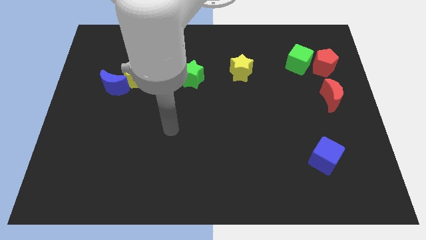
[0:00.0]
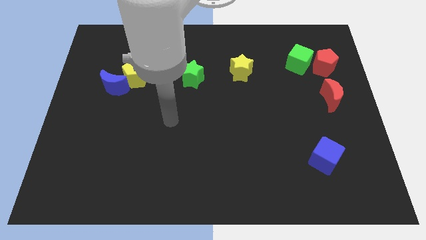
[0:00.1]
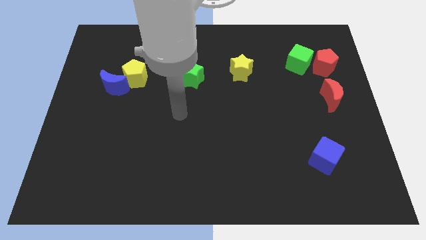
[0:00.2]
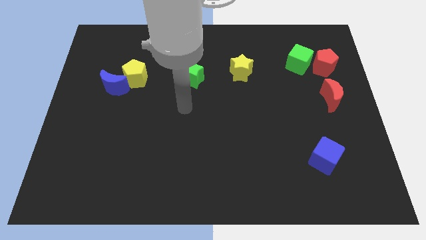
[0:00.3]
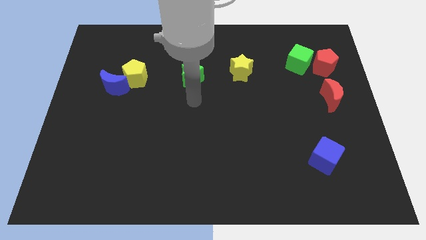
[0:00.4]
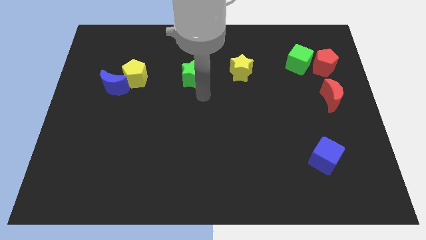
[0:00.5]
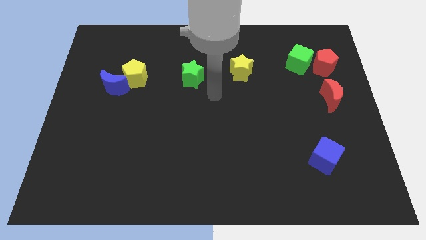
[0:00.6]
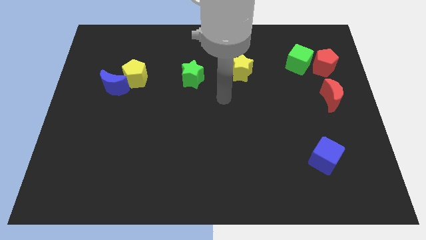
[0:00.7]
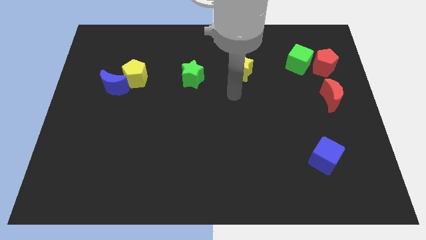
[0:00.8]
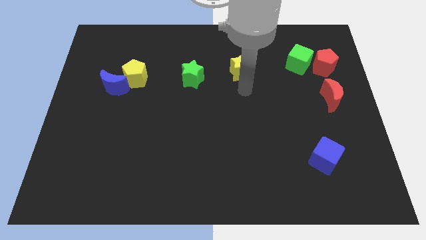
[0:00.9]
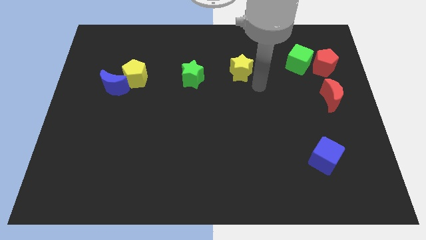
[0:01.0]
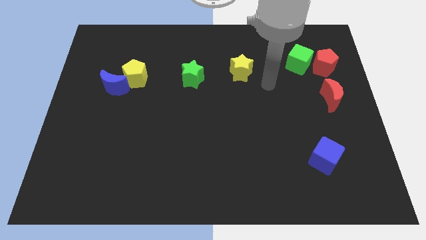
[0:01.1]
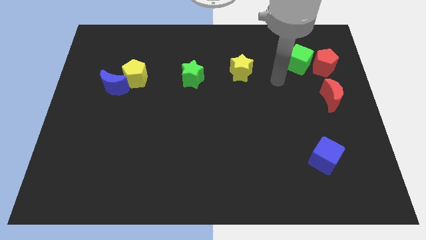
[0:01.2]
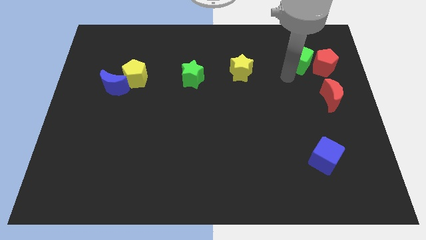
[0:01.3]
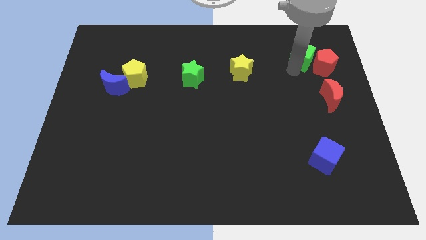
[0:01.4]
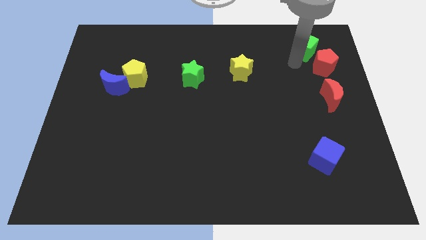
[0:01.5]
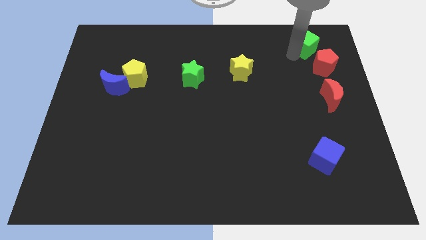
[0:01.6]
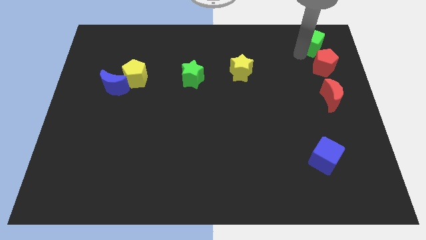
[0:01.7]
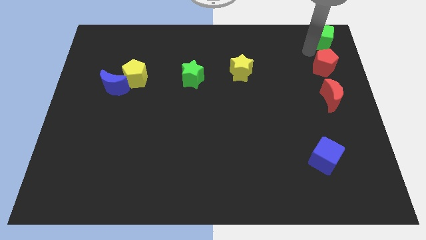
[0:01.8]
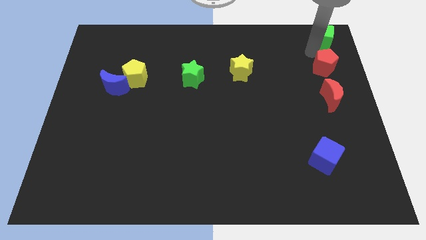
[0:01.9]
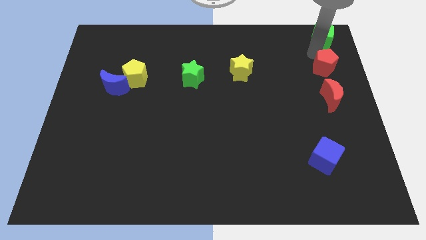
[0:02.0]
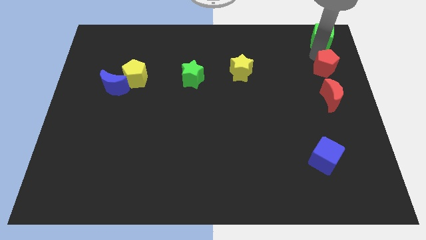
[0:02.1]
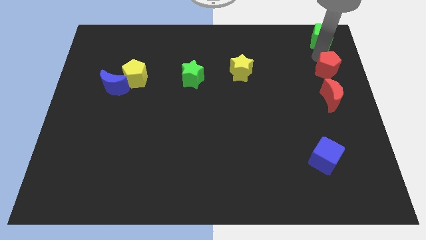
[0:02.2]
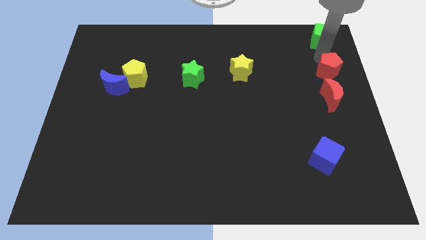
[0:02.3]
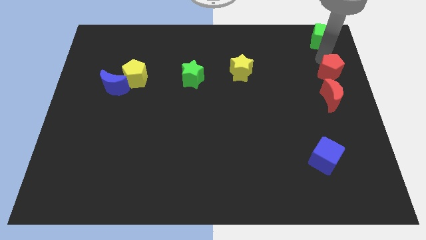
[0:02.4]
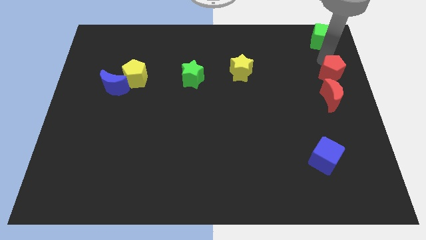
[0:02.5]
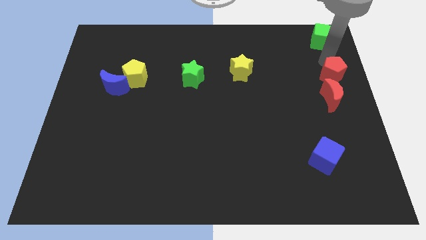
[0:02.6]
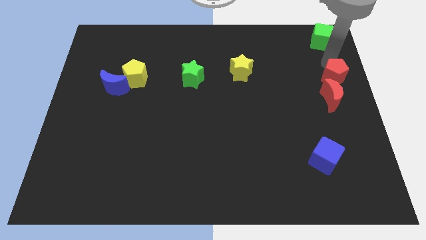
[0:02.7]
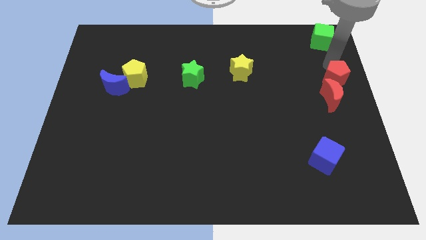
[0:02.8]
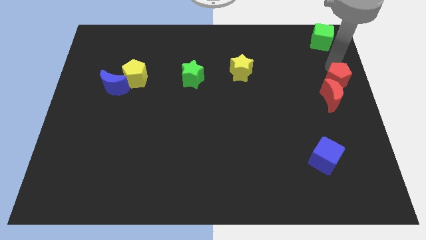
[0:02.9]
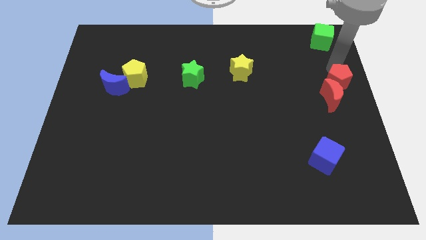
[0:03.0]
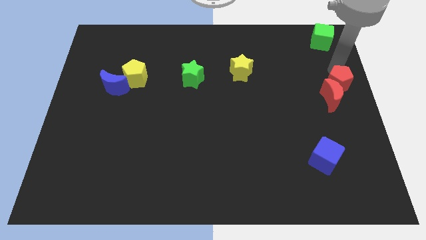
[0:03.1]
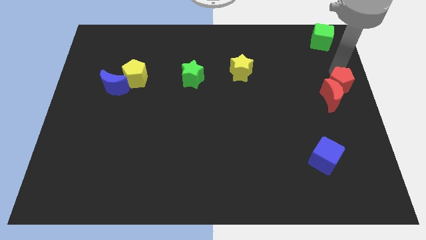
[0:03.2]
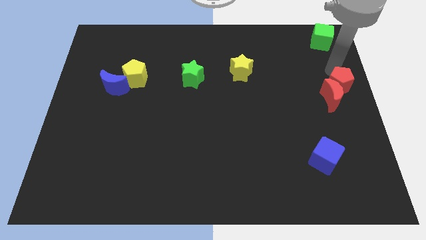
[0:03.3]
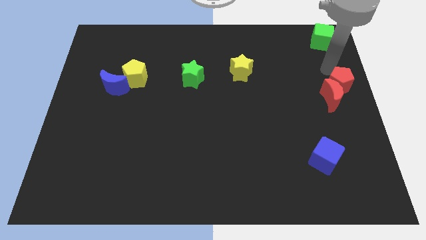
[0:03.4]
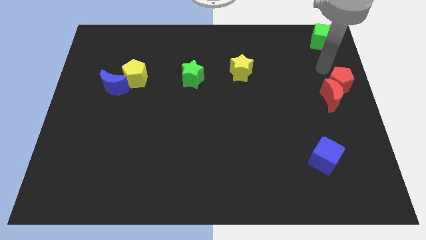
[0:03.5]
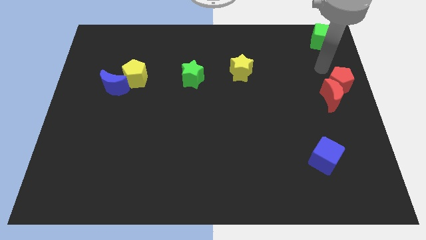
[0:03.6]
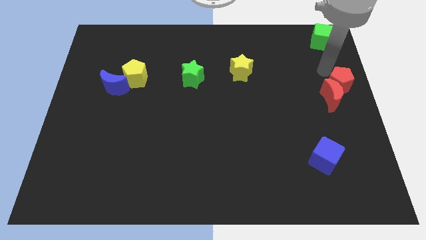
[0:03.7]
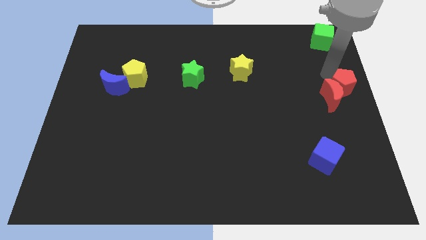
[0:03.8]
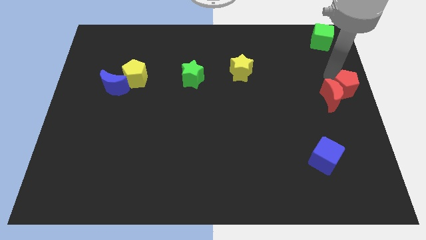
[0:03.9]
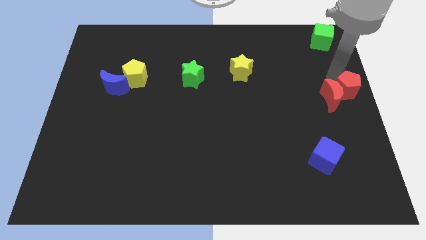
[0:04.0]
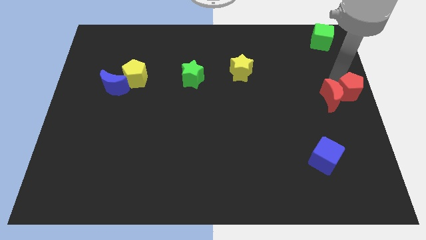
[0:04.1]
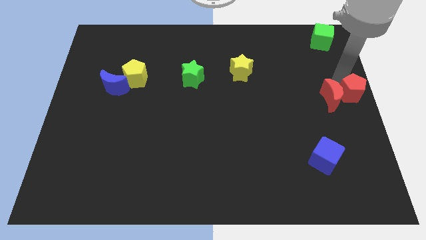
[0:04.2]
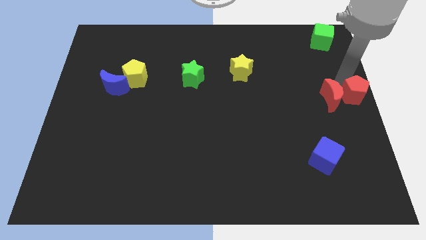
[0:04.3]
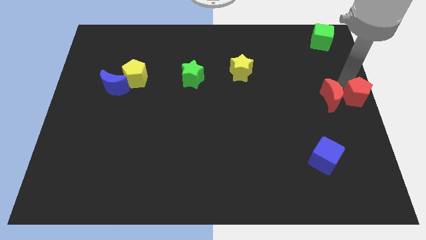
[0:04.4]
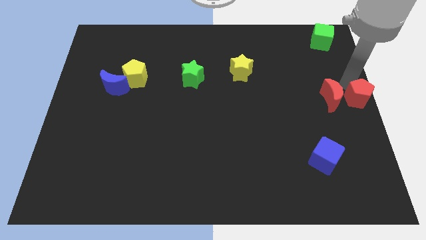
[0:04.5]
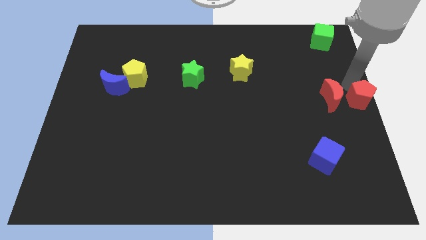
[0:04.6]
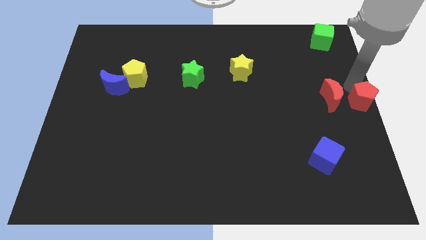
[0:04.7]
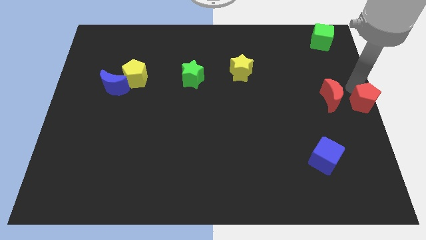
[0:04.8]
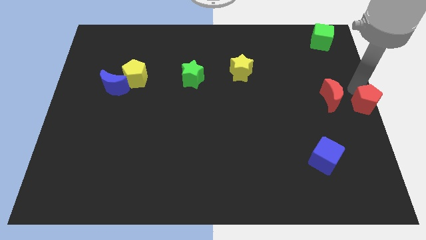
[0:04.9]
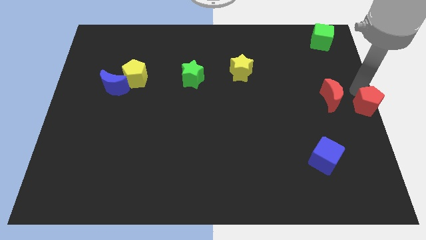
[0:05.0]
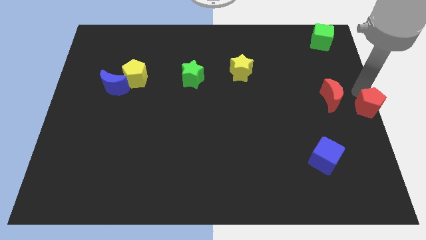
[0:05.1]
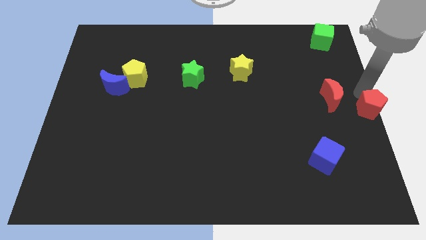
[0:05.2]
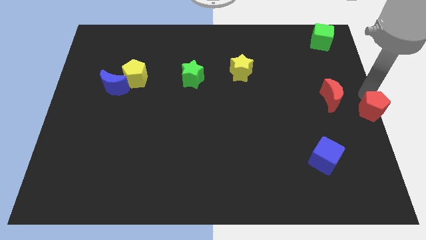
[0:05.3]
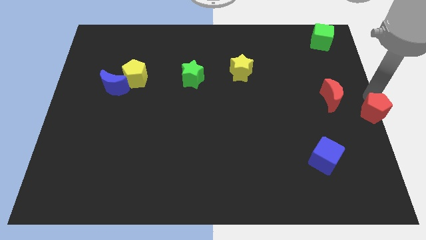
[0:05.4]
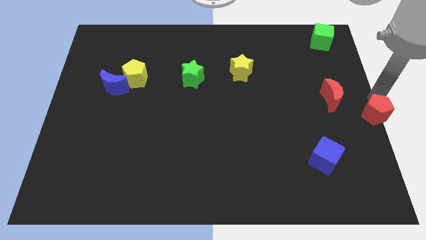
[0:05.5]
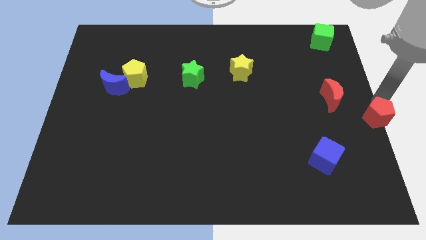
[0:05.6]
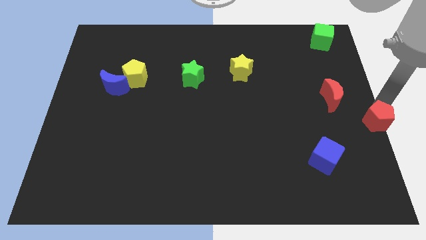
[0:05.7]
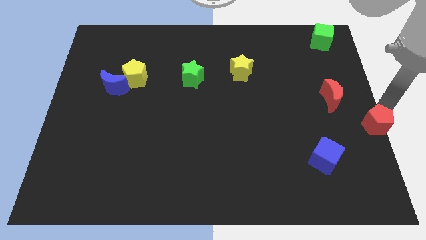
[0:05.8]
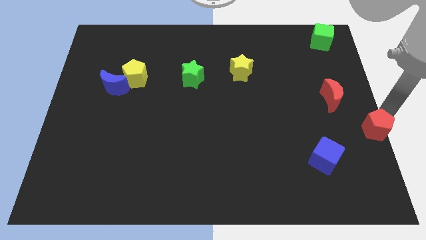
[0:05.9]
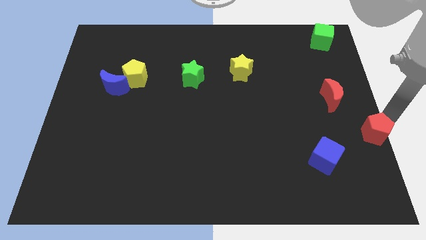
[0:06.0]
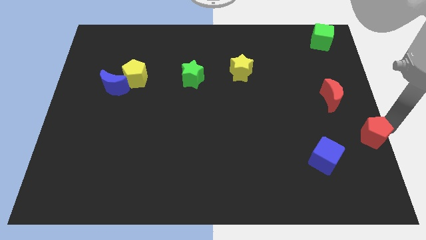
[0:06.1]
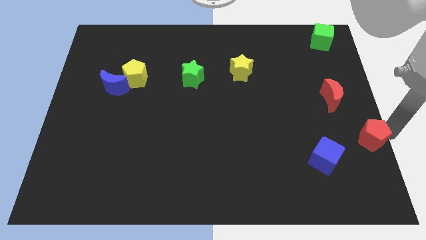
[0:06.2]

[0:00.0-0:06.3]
slide the red pentagon down

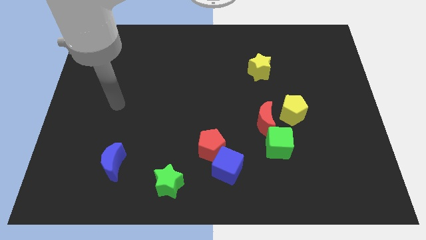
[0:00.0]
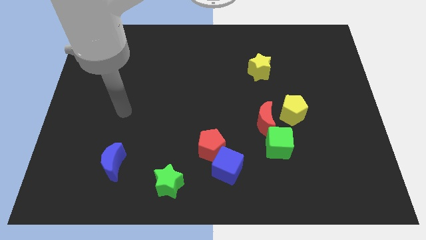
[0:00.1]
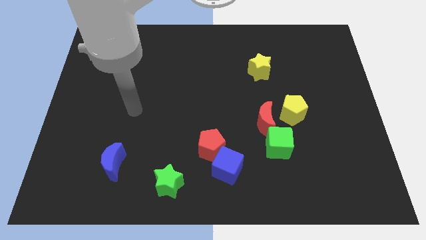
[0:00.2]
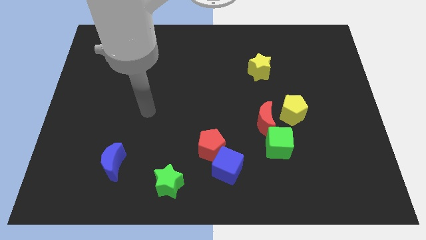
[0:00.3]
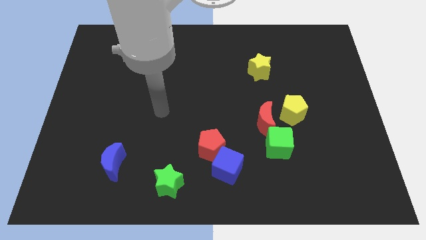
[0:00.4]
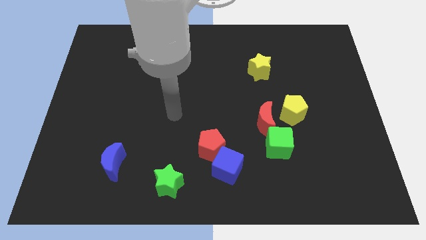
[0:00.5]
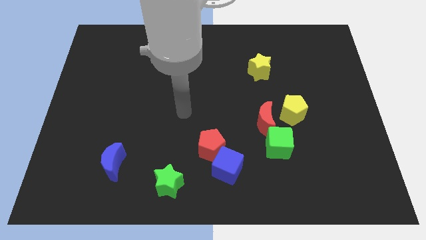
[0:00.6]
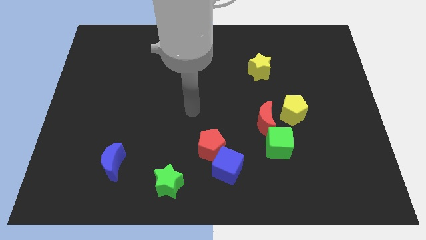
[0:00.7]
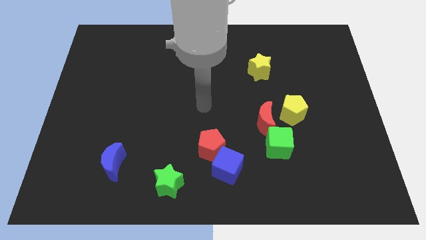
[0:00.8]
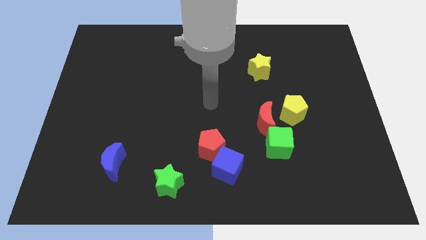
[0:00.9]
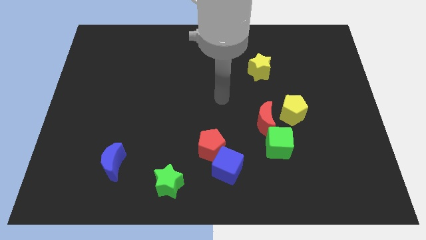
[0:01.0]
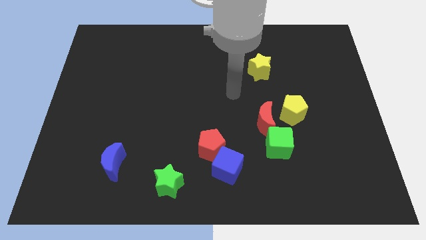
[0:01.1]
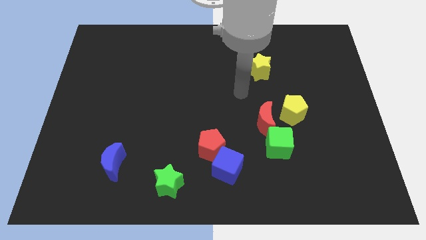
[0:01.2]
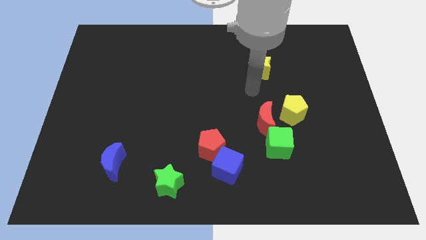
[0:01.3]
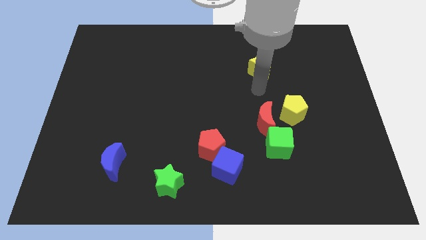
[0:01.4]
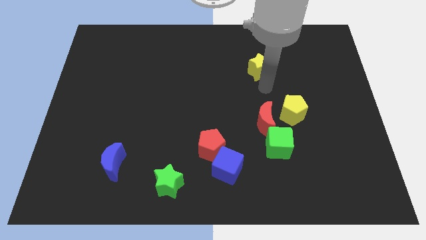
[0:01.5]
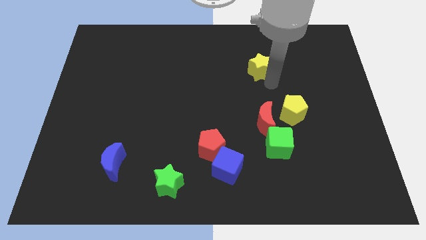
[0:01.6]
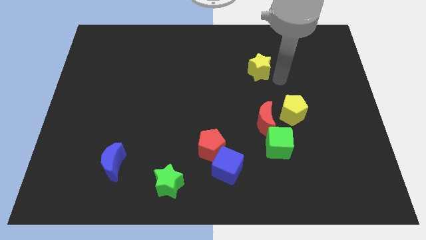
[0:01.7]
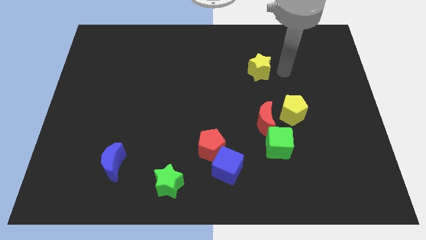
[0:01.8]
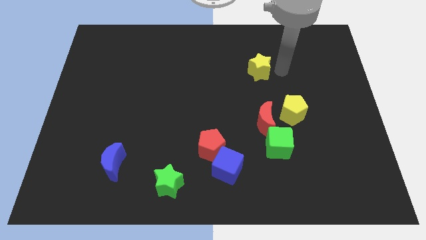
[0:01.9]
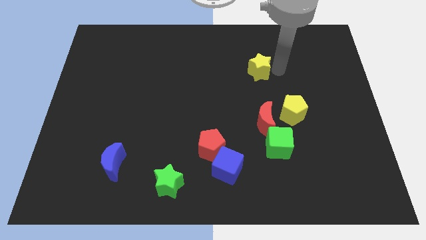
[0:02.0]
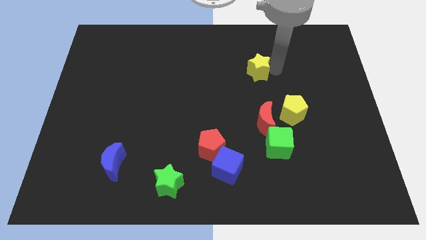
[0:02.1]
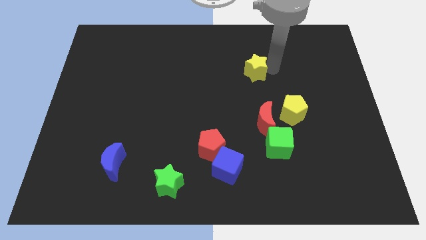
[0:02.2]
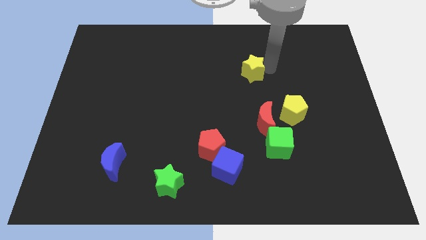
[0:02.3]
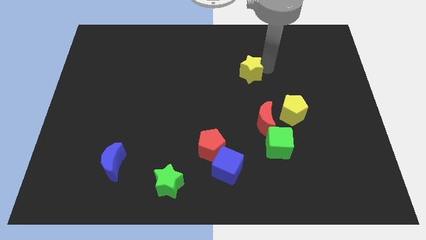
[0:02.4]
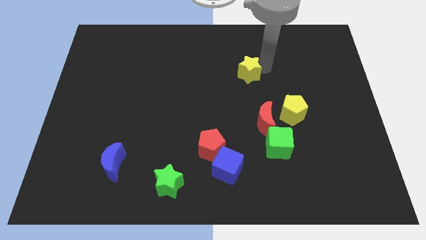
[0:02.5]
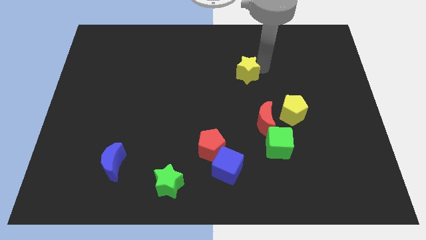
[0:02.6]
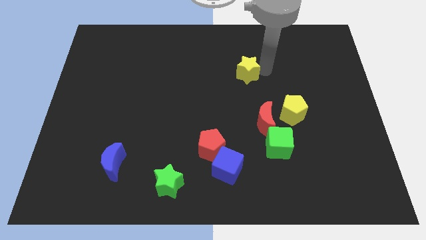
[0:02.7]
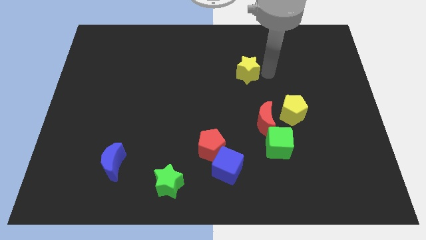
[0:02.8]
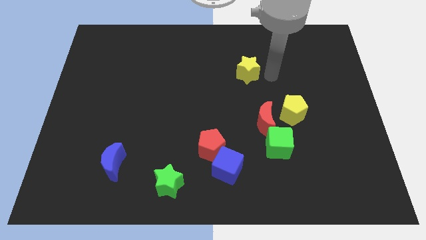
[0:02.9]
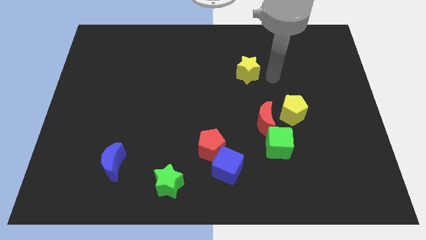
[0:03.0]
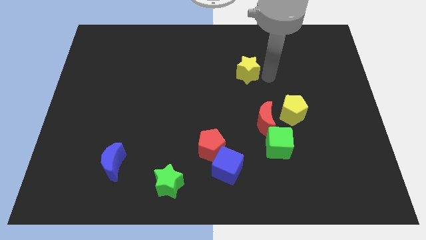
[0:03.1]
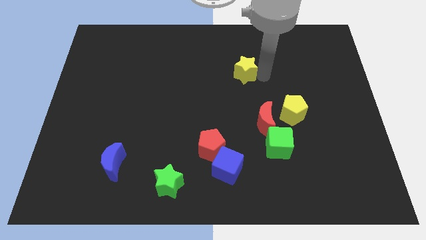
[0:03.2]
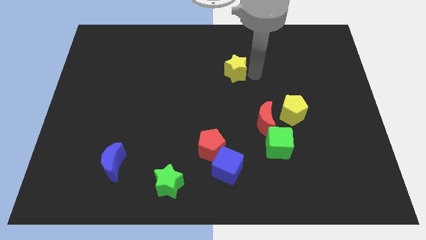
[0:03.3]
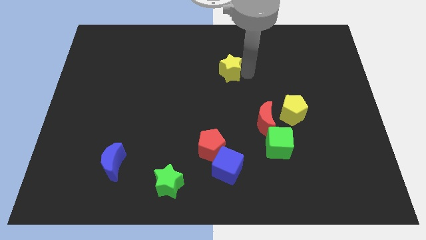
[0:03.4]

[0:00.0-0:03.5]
slide the yellow star left a bit
